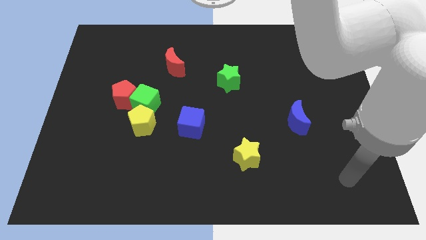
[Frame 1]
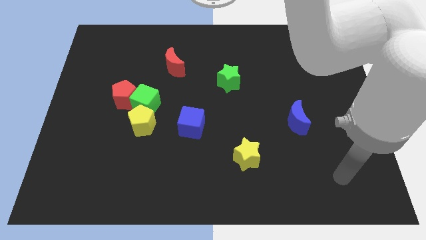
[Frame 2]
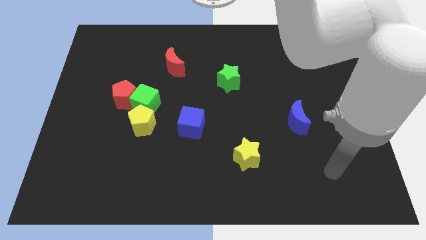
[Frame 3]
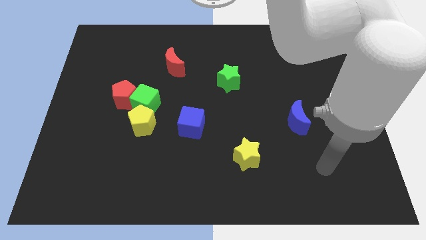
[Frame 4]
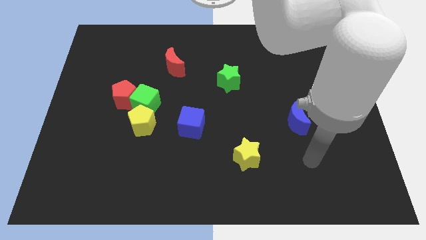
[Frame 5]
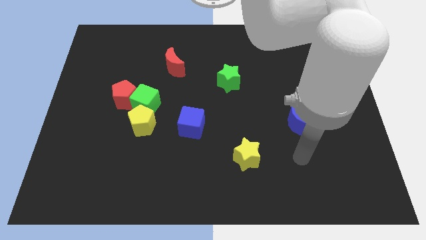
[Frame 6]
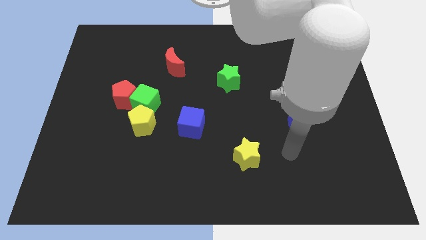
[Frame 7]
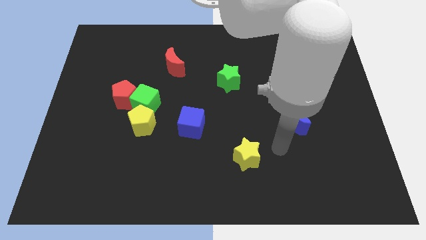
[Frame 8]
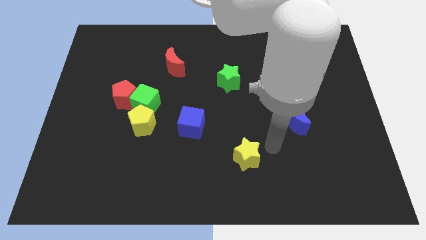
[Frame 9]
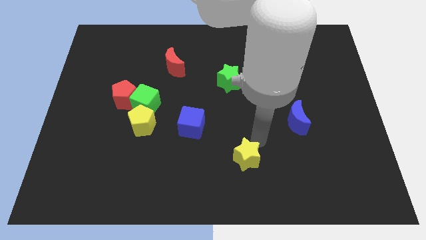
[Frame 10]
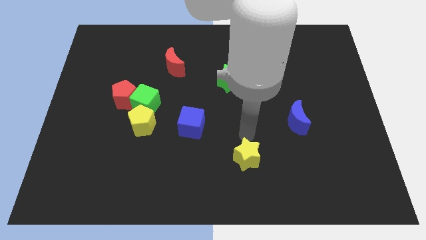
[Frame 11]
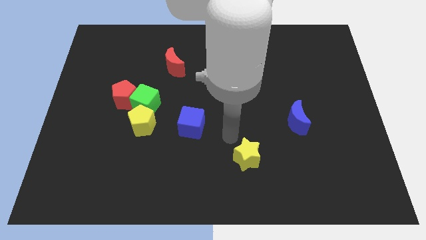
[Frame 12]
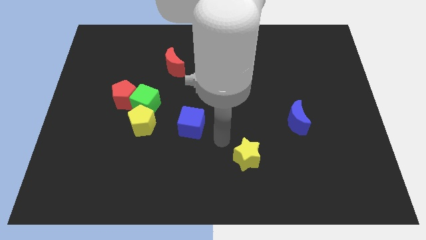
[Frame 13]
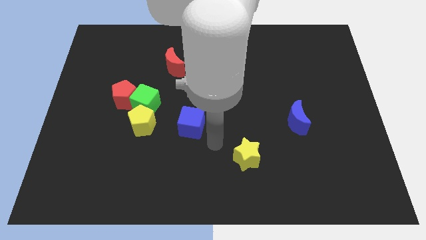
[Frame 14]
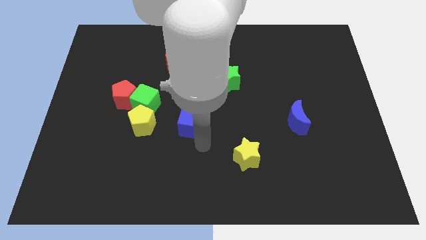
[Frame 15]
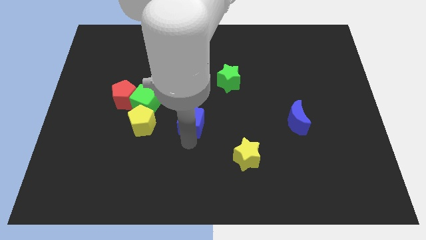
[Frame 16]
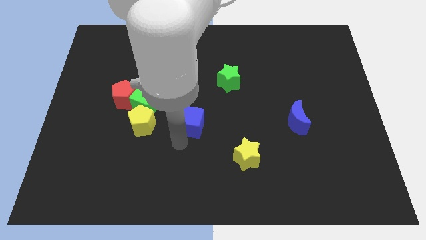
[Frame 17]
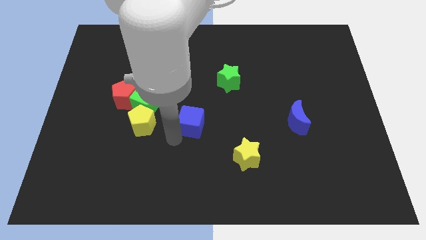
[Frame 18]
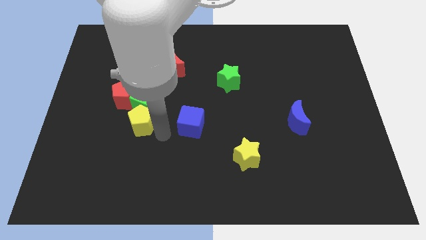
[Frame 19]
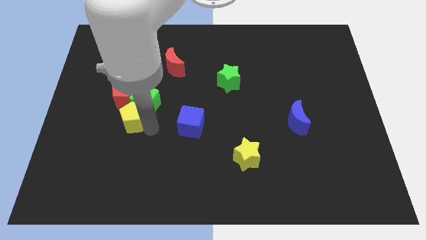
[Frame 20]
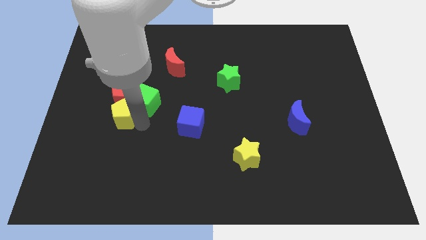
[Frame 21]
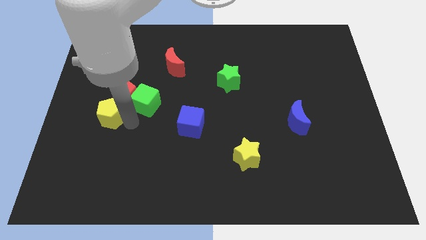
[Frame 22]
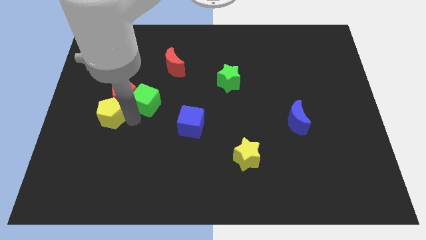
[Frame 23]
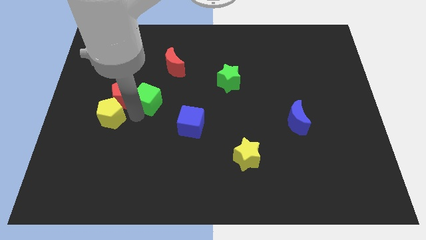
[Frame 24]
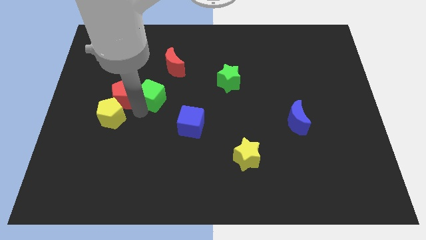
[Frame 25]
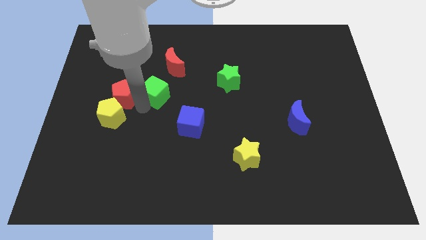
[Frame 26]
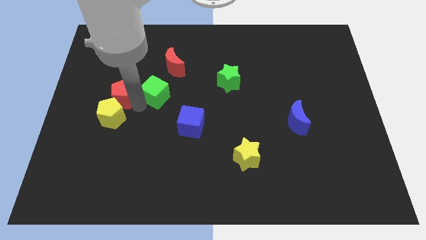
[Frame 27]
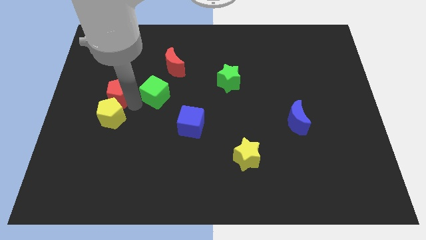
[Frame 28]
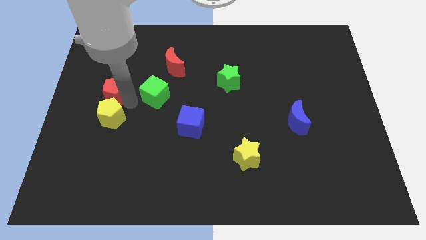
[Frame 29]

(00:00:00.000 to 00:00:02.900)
pull the green cube apart from the red pentagon and yellow pentagon

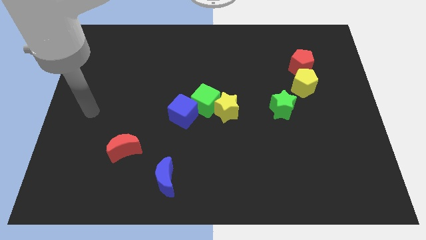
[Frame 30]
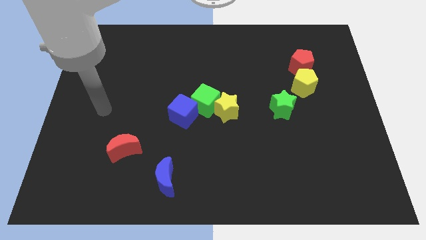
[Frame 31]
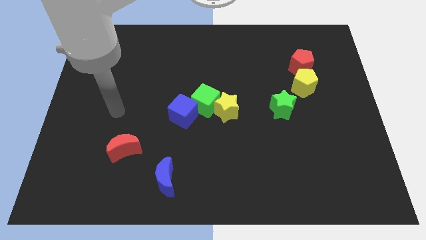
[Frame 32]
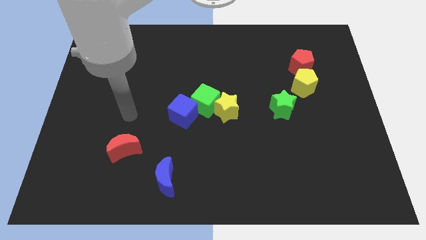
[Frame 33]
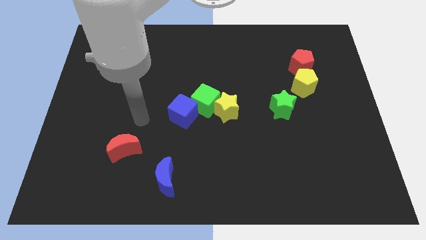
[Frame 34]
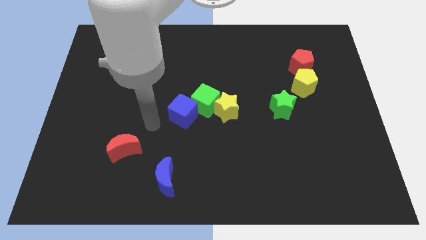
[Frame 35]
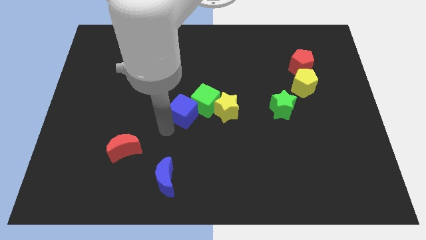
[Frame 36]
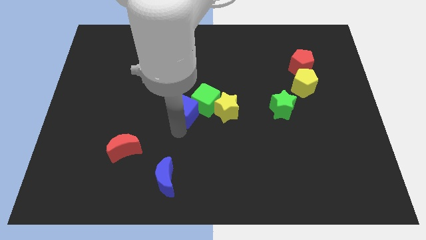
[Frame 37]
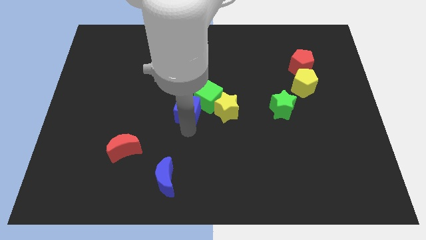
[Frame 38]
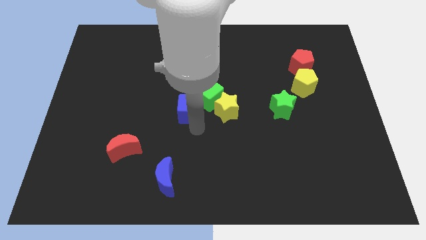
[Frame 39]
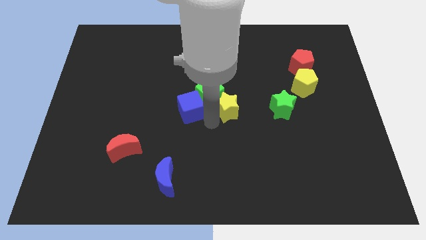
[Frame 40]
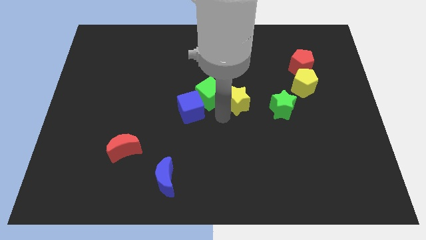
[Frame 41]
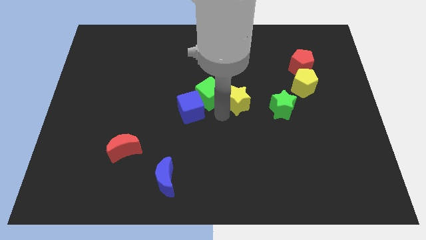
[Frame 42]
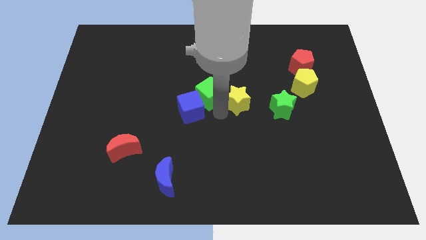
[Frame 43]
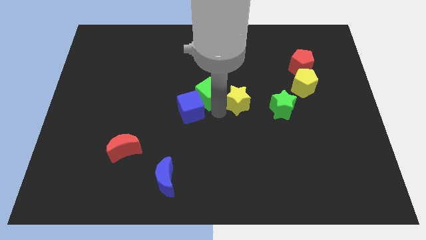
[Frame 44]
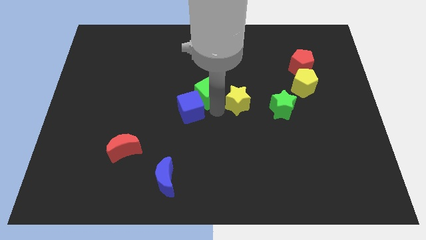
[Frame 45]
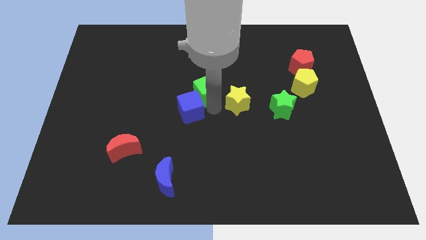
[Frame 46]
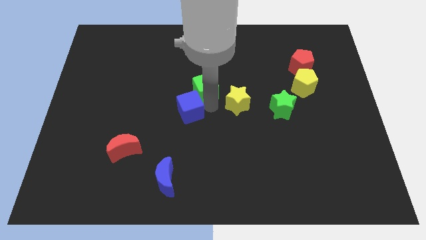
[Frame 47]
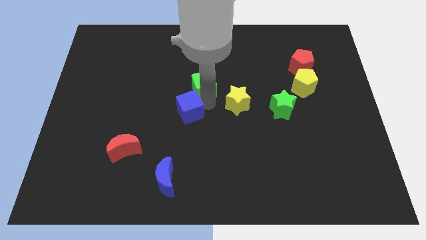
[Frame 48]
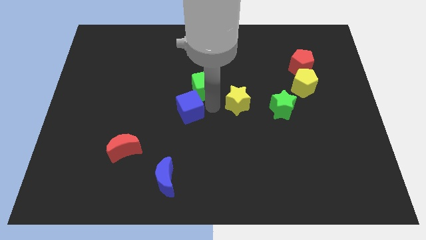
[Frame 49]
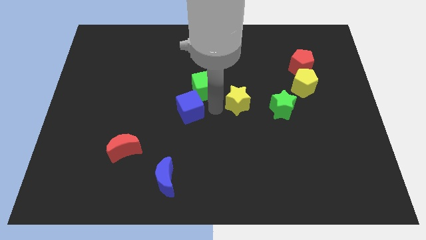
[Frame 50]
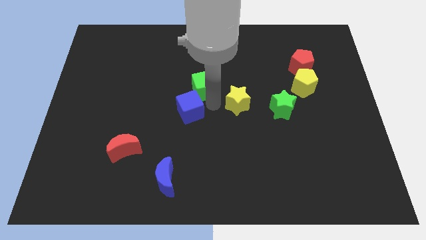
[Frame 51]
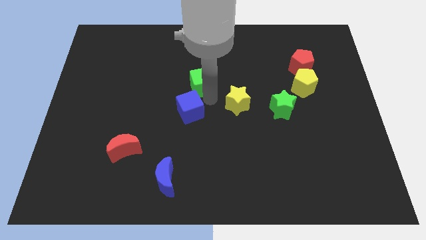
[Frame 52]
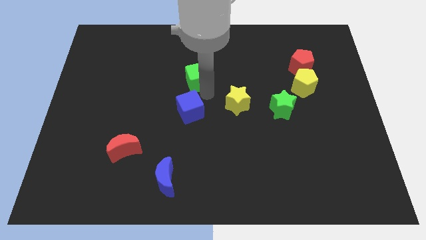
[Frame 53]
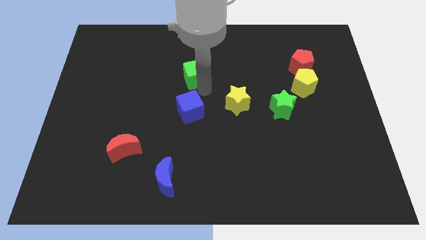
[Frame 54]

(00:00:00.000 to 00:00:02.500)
pull the green cube apart from the yellow star and blue cube

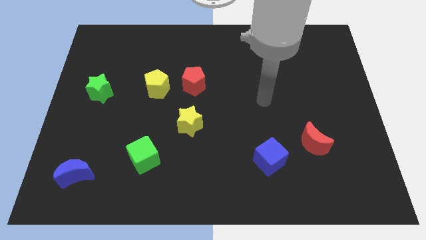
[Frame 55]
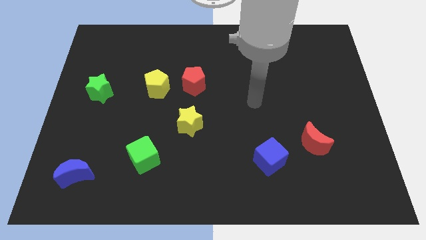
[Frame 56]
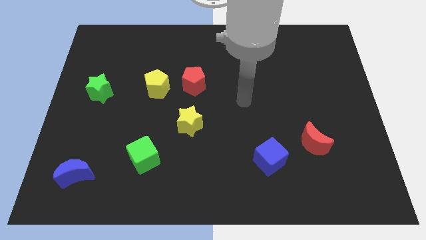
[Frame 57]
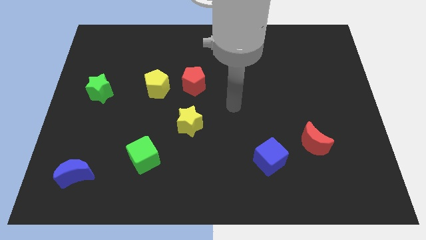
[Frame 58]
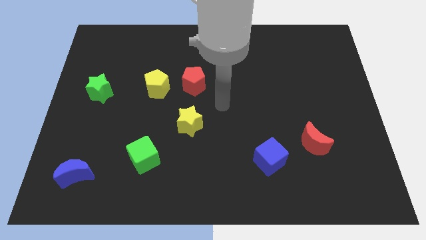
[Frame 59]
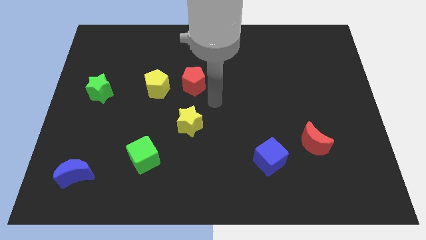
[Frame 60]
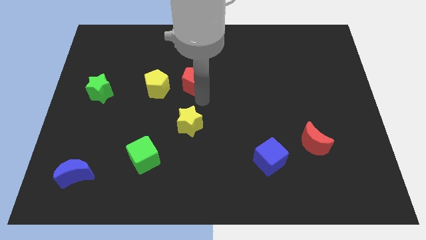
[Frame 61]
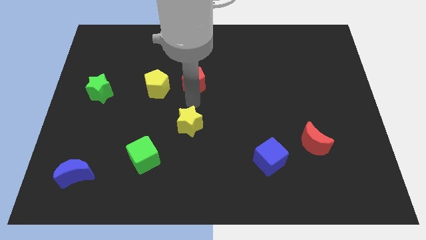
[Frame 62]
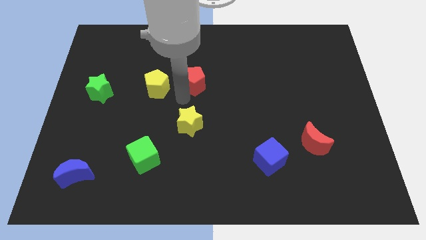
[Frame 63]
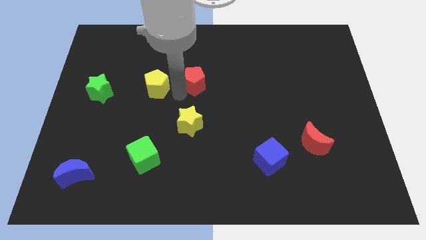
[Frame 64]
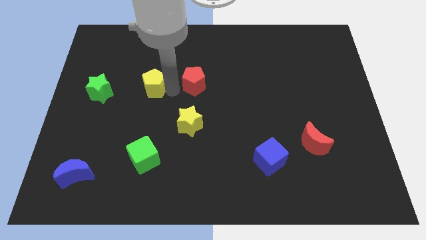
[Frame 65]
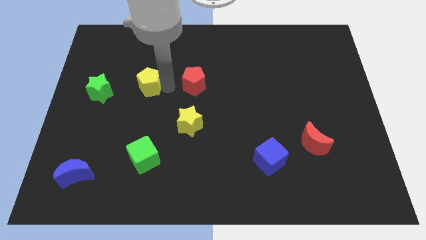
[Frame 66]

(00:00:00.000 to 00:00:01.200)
separate the red pentagon from the yellow pentagon

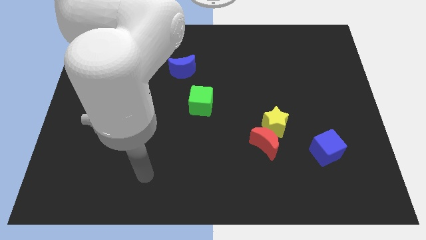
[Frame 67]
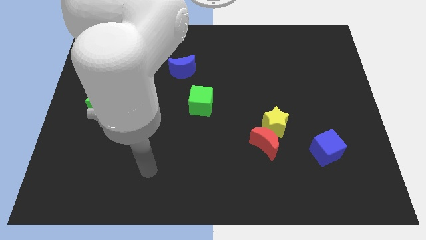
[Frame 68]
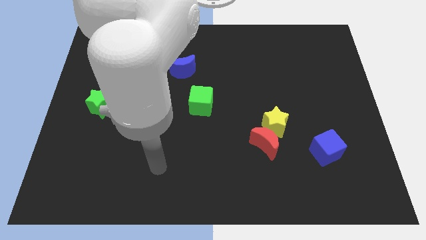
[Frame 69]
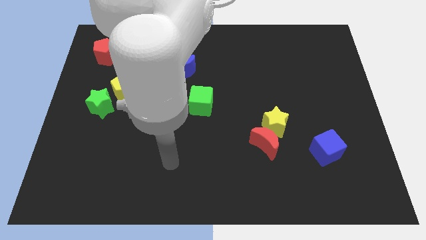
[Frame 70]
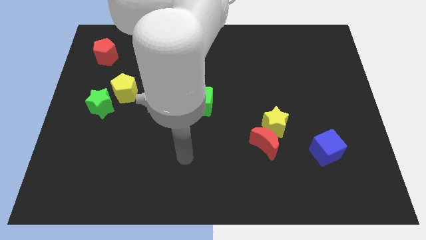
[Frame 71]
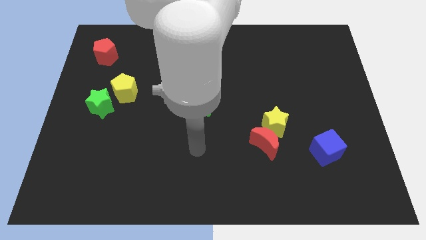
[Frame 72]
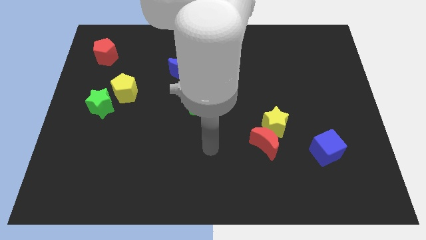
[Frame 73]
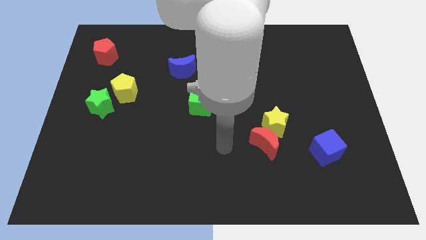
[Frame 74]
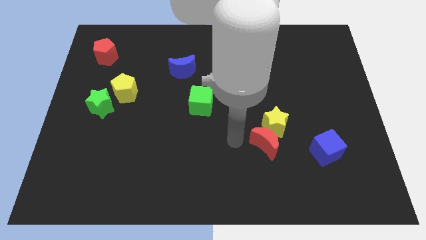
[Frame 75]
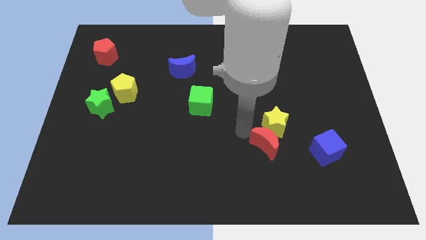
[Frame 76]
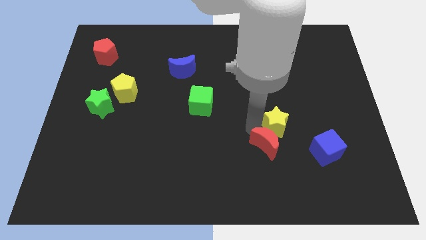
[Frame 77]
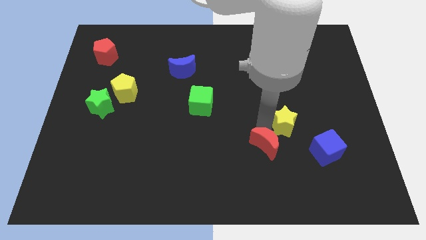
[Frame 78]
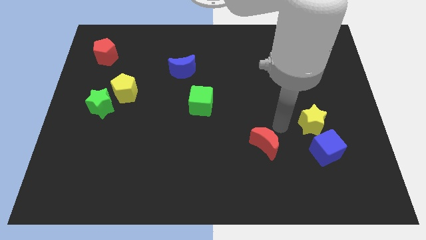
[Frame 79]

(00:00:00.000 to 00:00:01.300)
move the red moon away from the yellow star

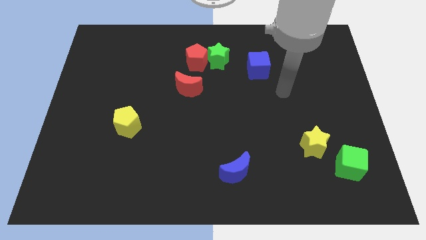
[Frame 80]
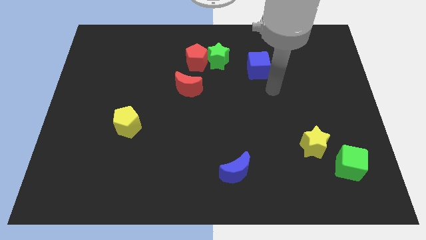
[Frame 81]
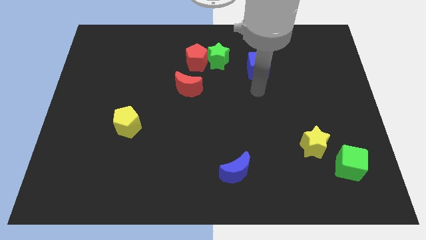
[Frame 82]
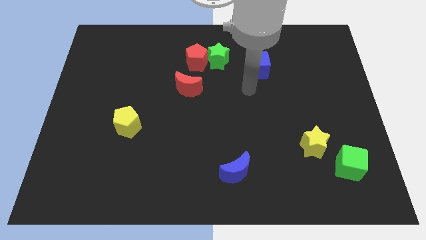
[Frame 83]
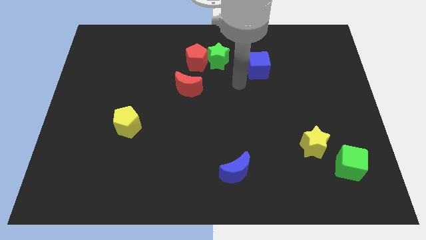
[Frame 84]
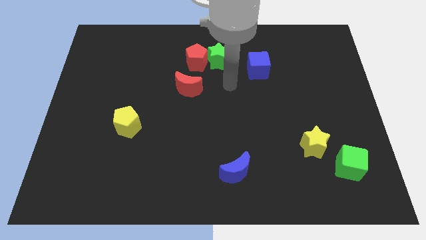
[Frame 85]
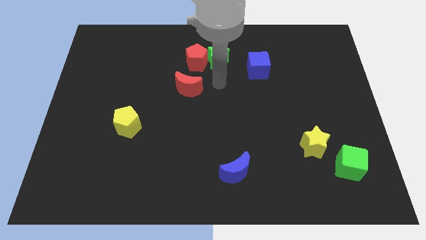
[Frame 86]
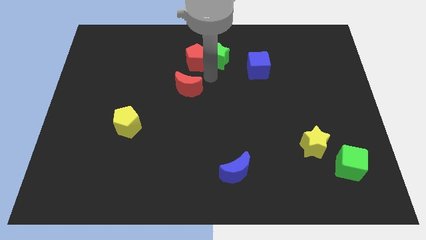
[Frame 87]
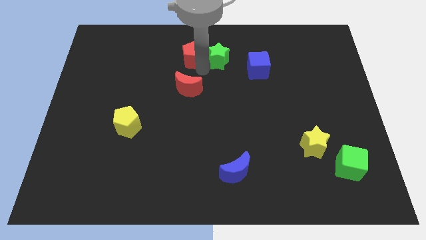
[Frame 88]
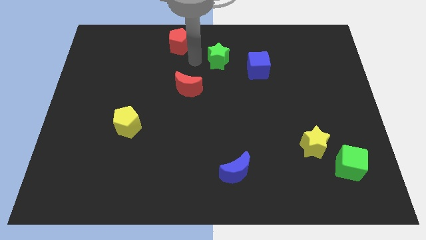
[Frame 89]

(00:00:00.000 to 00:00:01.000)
separate the green star from the red pentagon

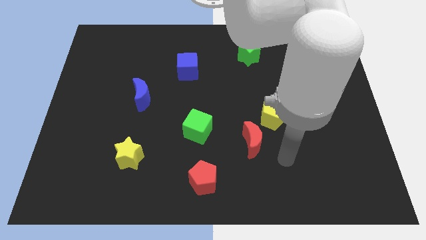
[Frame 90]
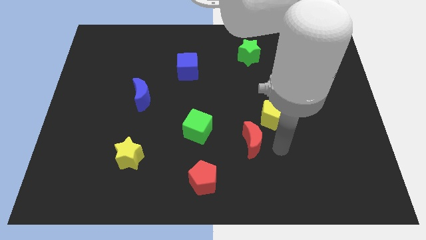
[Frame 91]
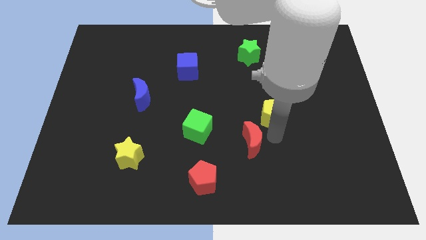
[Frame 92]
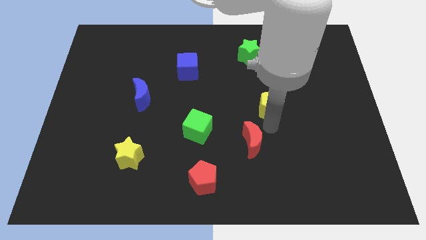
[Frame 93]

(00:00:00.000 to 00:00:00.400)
move the red moon away from the yellow pentagon
